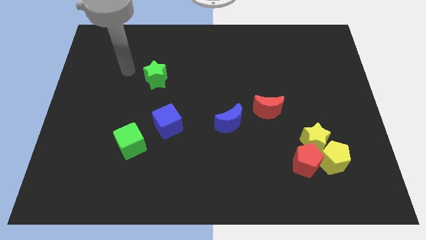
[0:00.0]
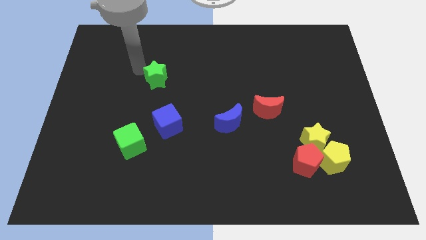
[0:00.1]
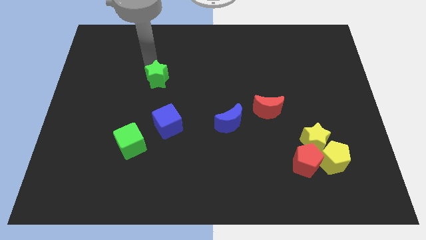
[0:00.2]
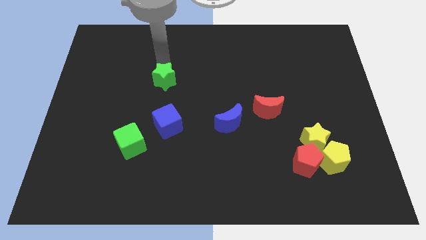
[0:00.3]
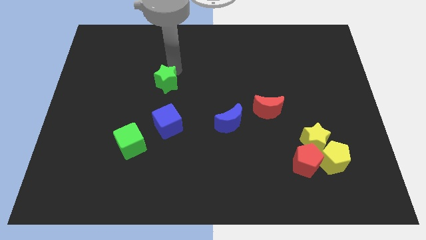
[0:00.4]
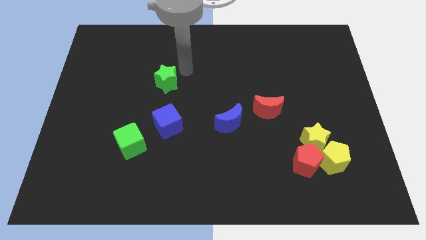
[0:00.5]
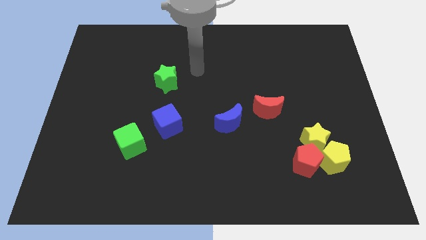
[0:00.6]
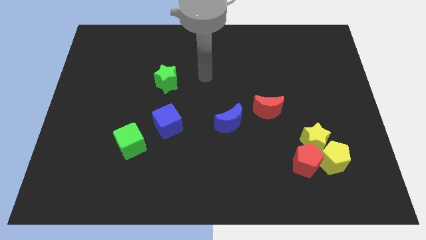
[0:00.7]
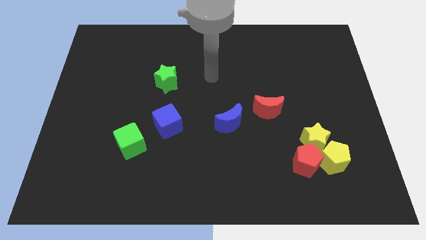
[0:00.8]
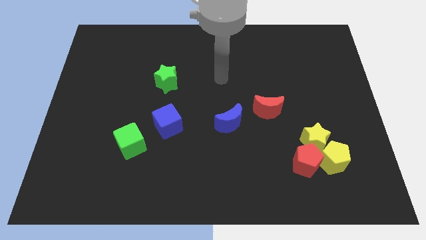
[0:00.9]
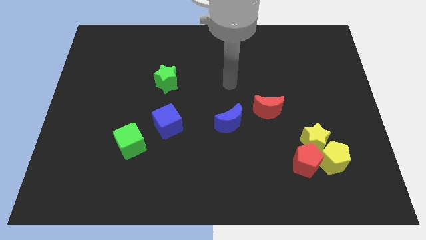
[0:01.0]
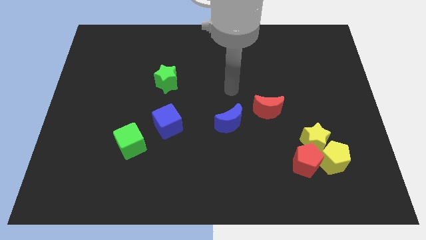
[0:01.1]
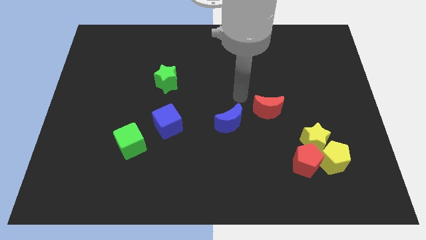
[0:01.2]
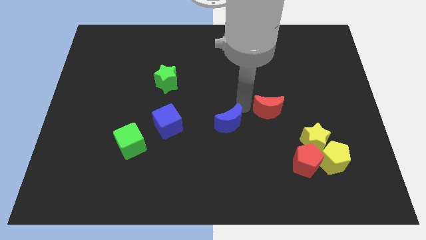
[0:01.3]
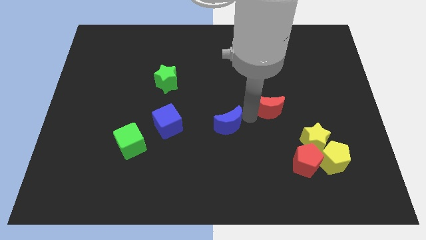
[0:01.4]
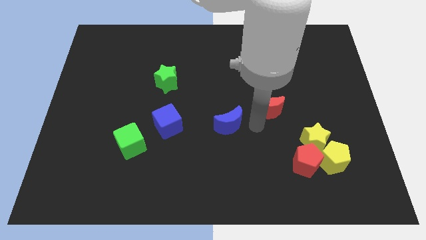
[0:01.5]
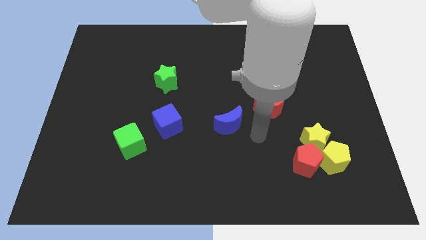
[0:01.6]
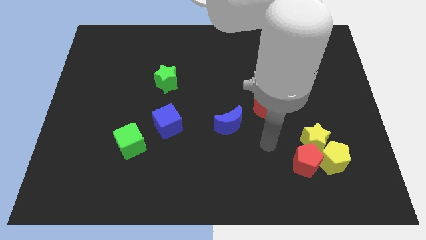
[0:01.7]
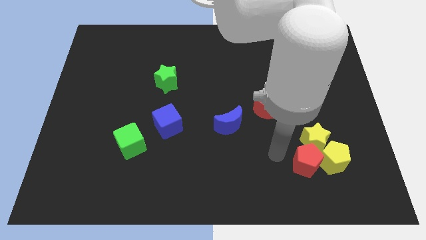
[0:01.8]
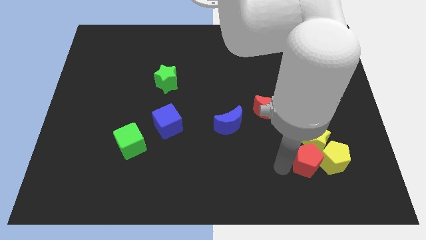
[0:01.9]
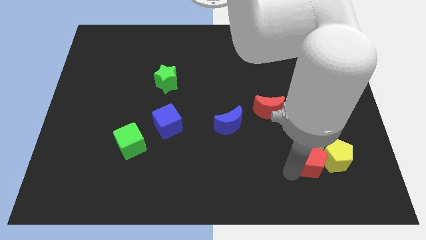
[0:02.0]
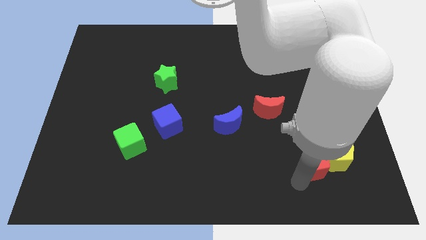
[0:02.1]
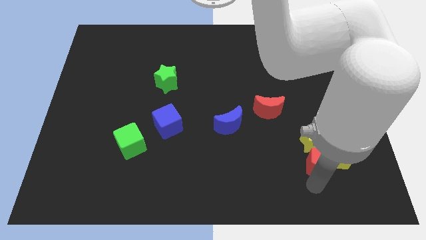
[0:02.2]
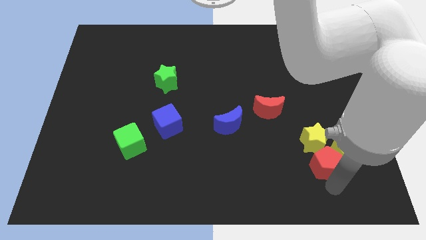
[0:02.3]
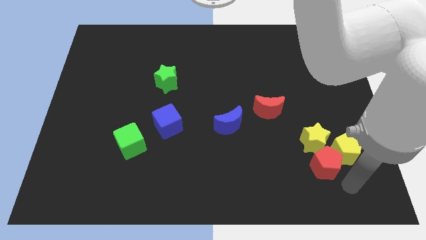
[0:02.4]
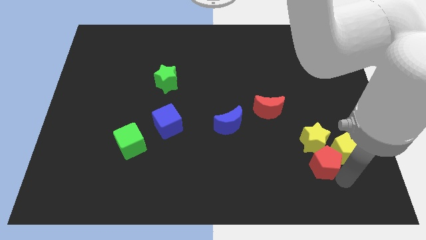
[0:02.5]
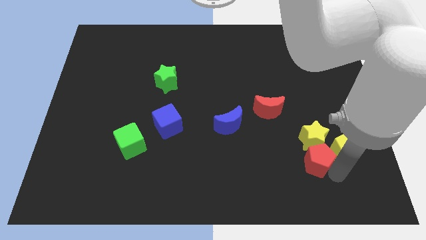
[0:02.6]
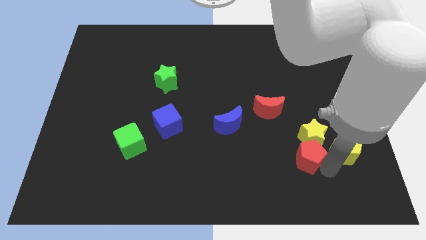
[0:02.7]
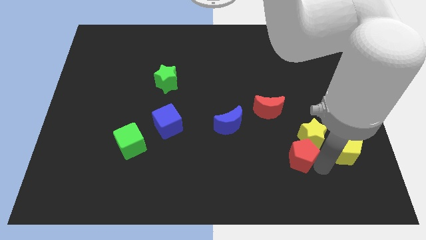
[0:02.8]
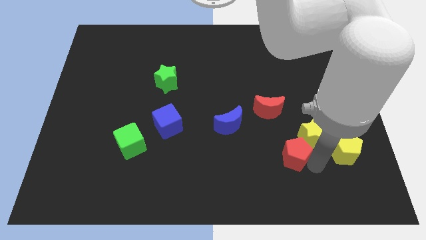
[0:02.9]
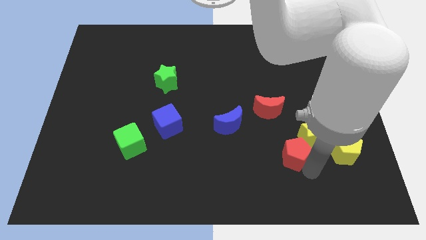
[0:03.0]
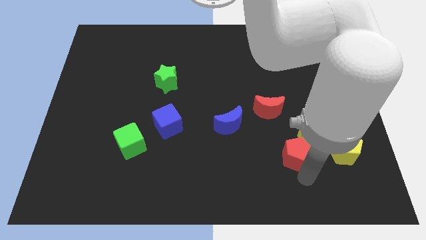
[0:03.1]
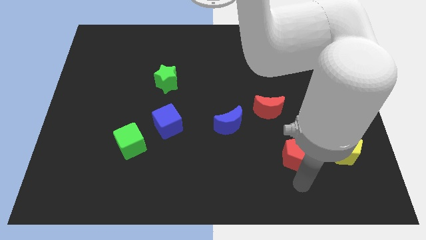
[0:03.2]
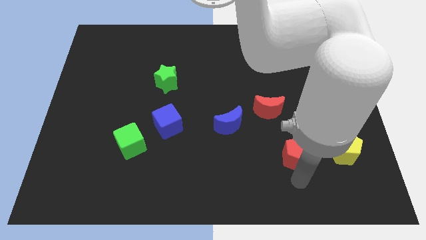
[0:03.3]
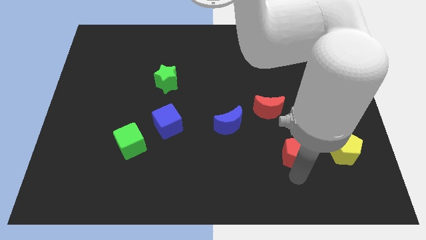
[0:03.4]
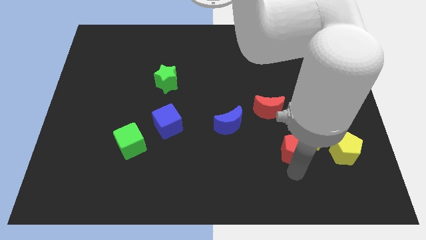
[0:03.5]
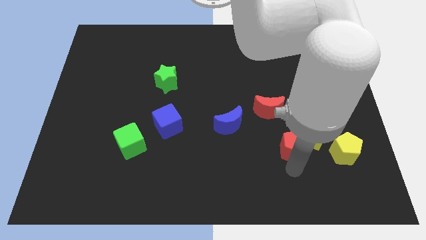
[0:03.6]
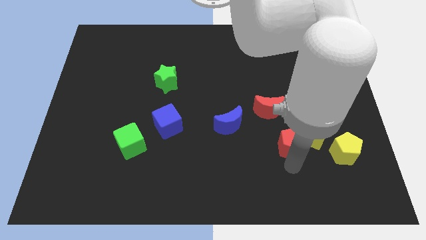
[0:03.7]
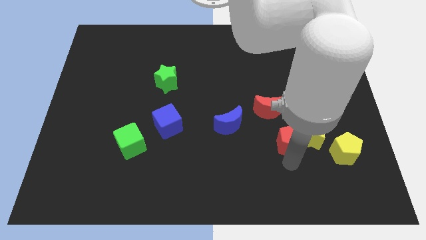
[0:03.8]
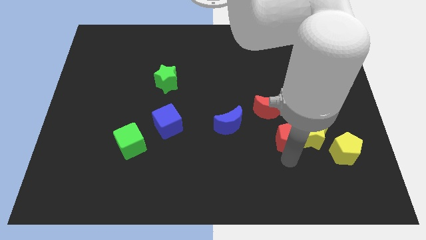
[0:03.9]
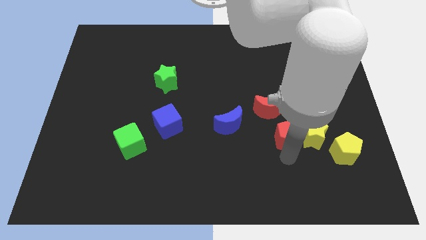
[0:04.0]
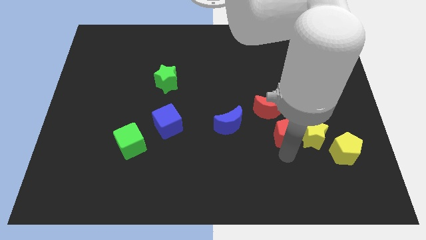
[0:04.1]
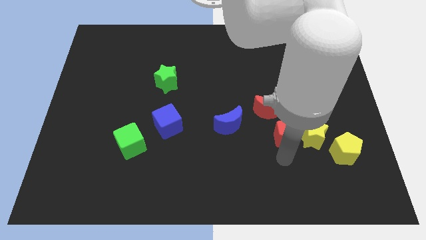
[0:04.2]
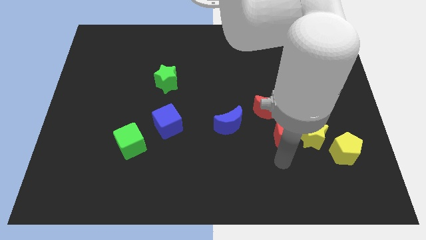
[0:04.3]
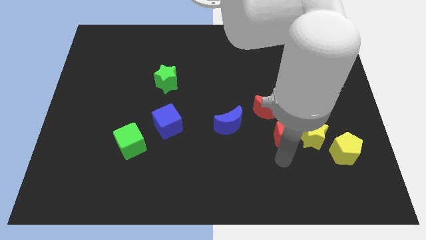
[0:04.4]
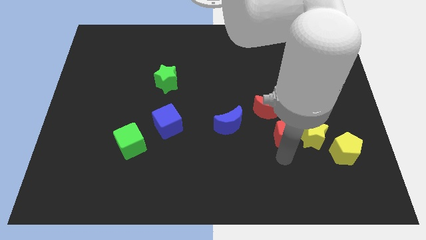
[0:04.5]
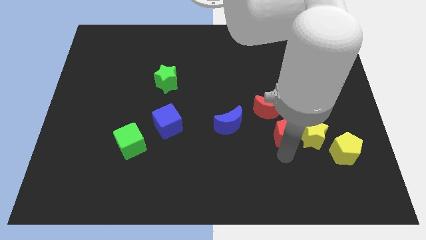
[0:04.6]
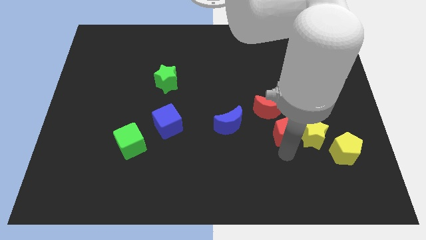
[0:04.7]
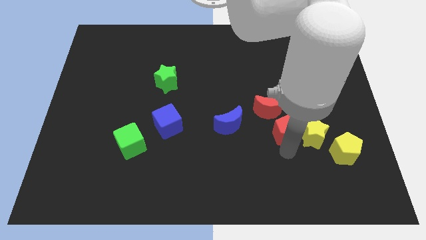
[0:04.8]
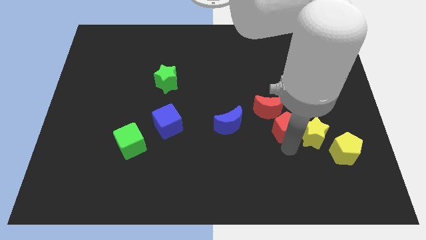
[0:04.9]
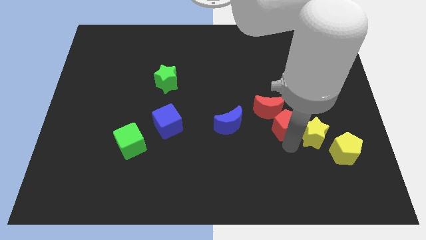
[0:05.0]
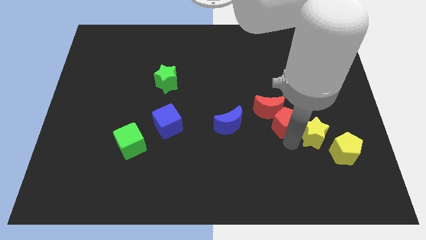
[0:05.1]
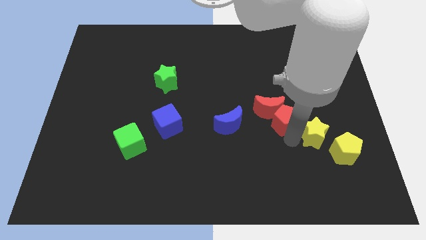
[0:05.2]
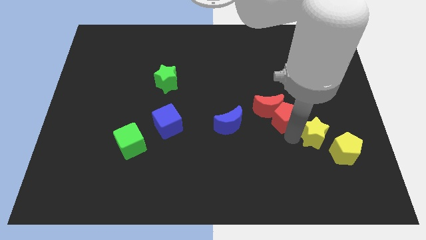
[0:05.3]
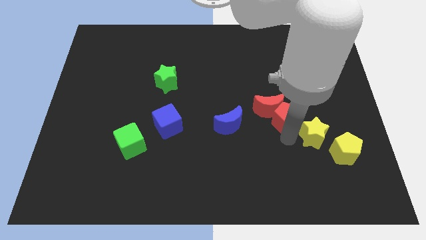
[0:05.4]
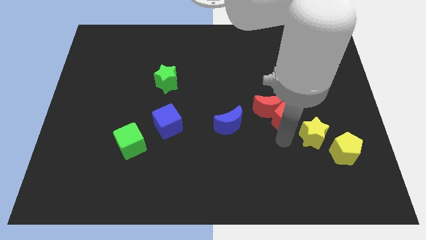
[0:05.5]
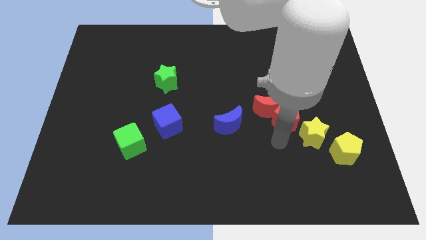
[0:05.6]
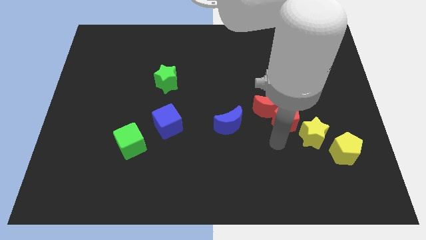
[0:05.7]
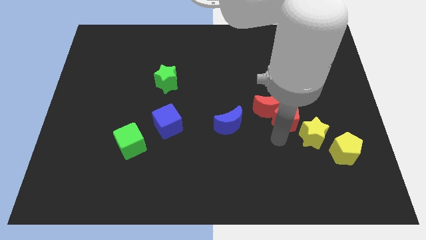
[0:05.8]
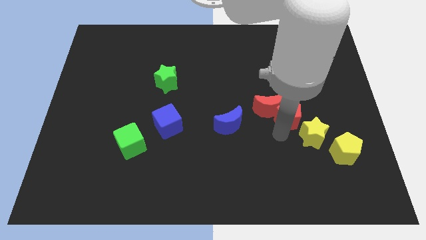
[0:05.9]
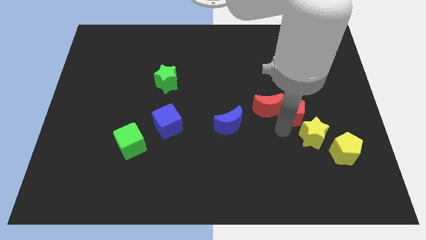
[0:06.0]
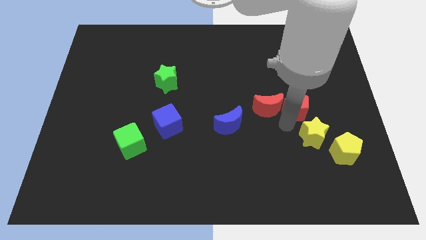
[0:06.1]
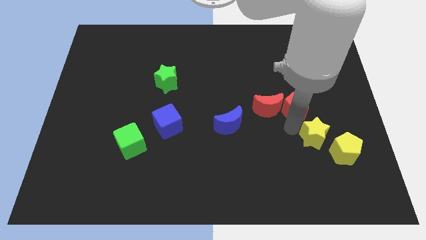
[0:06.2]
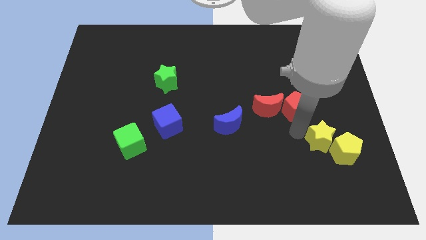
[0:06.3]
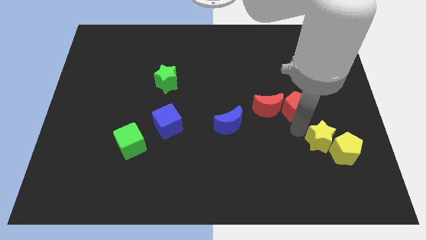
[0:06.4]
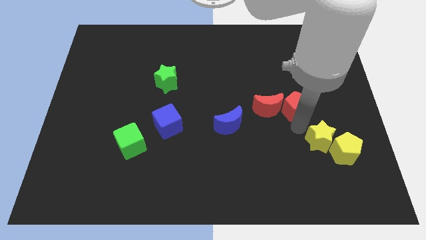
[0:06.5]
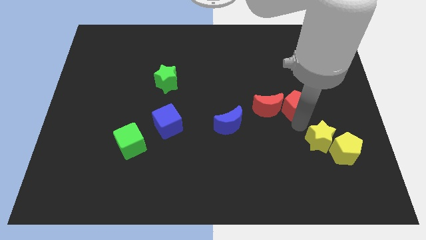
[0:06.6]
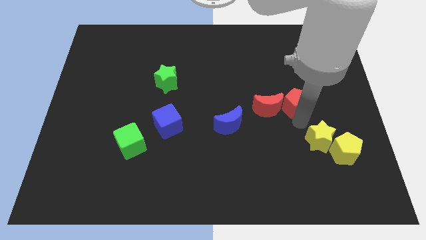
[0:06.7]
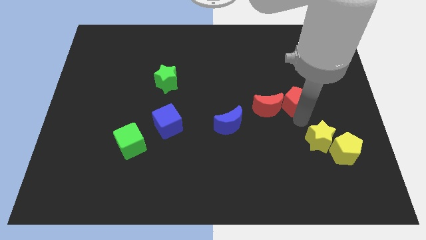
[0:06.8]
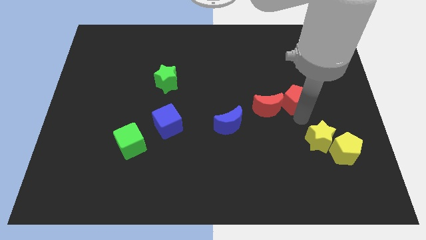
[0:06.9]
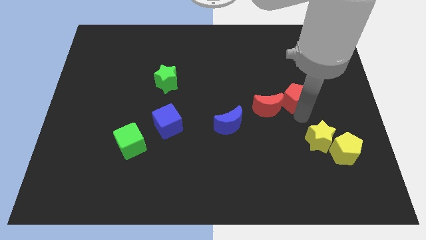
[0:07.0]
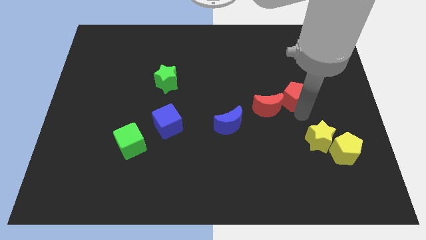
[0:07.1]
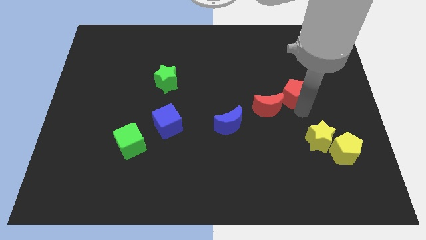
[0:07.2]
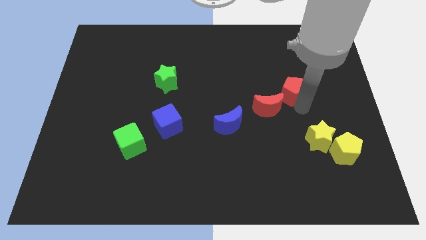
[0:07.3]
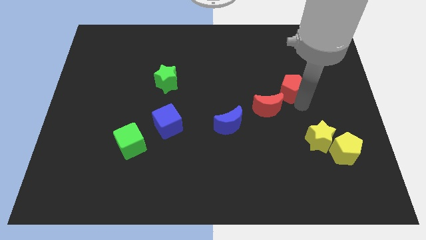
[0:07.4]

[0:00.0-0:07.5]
slide the red pentagon upwards
